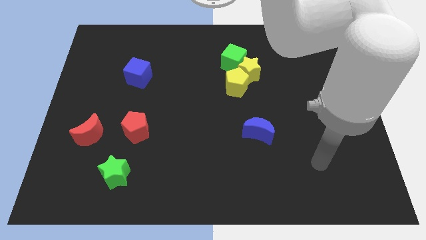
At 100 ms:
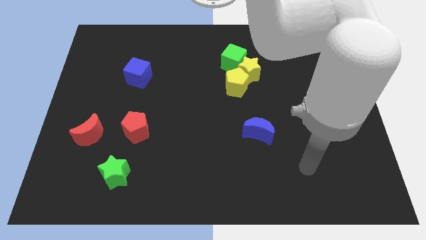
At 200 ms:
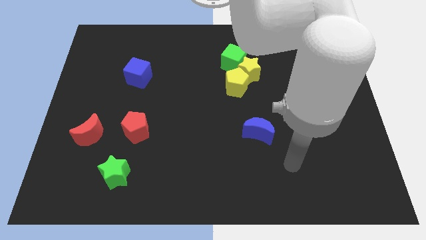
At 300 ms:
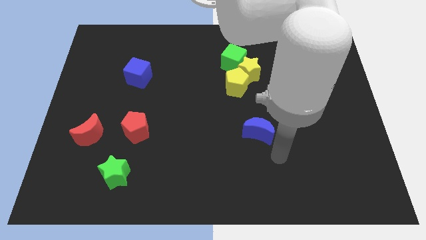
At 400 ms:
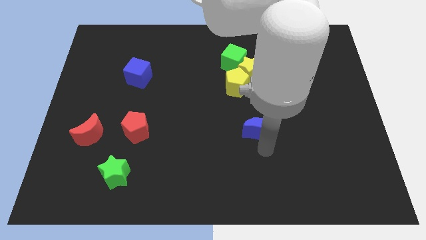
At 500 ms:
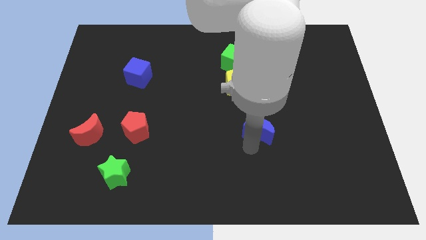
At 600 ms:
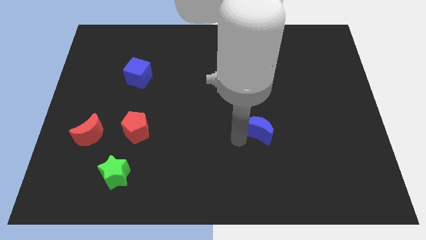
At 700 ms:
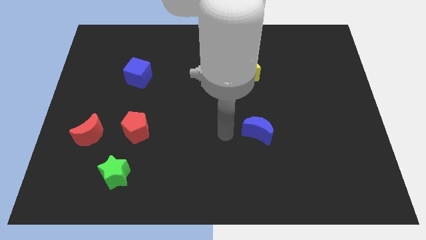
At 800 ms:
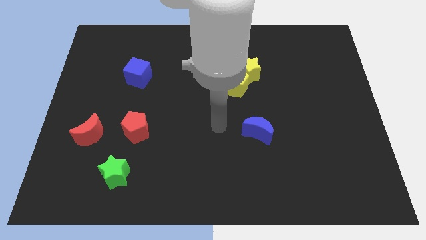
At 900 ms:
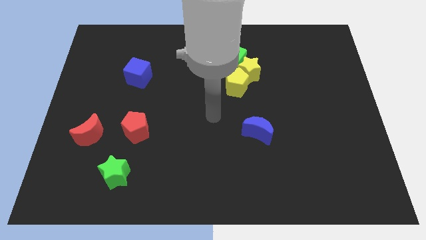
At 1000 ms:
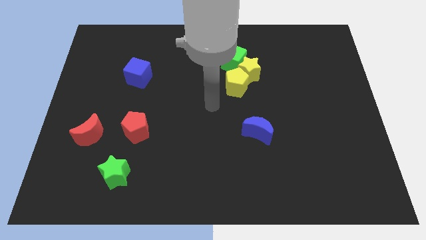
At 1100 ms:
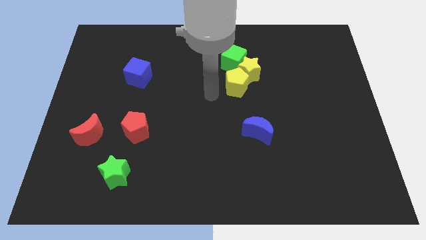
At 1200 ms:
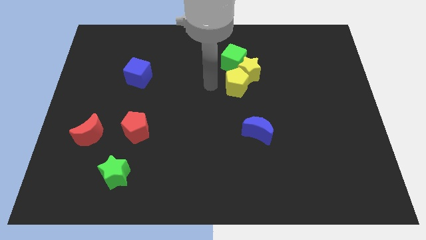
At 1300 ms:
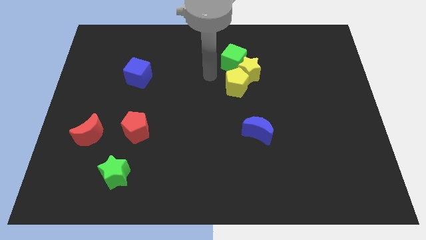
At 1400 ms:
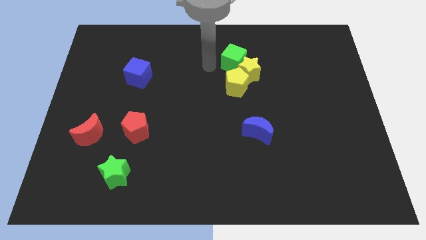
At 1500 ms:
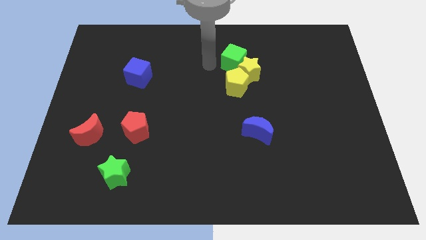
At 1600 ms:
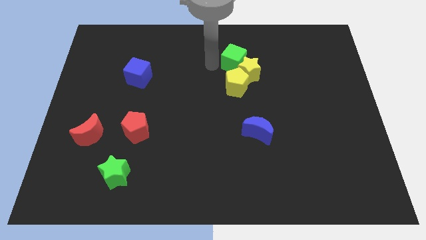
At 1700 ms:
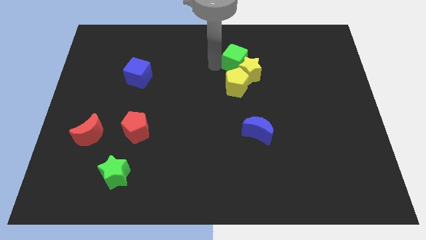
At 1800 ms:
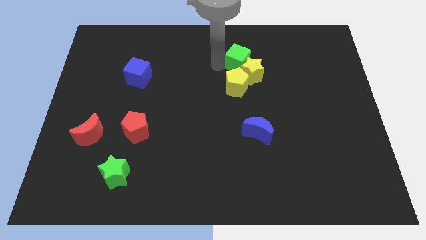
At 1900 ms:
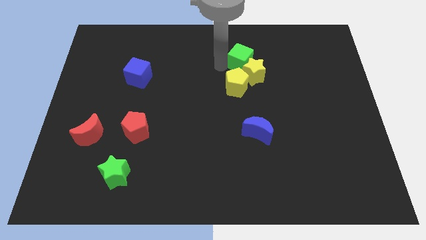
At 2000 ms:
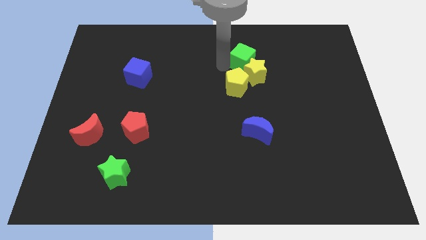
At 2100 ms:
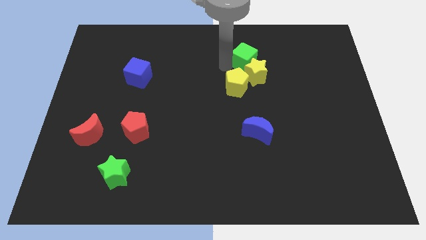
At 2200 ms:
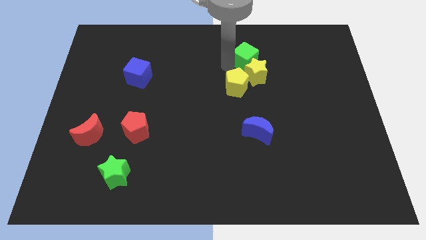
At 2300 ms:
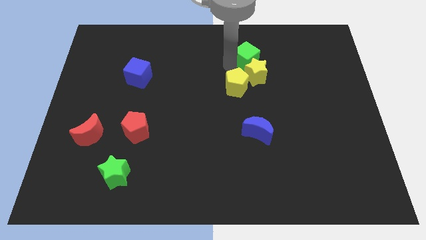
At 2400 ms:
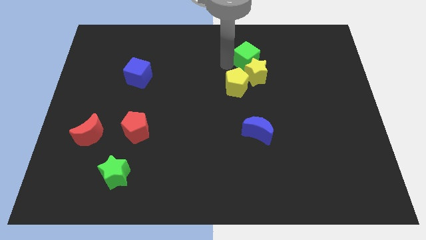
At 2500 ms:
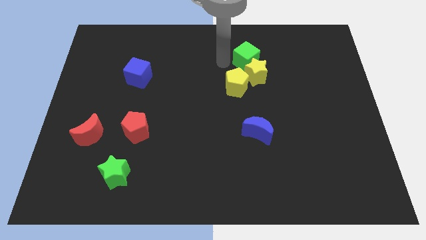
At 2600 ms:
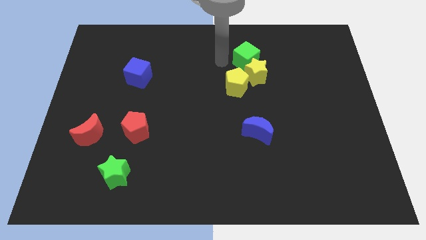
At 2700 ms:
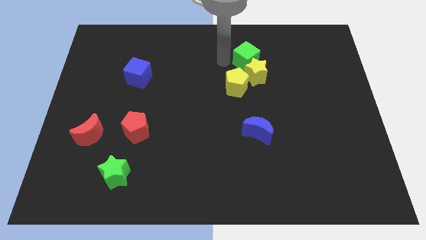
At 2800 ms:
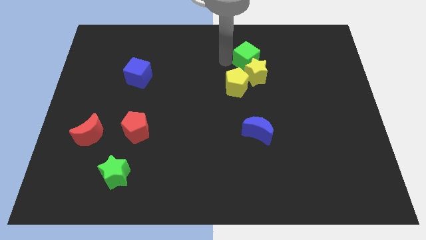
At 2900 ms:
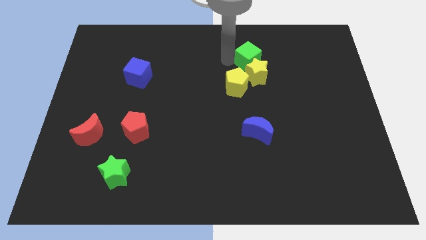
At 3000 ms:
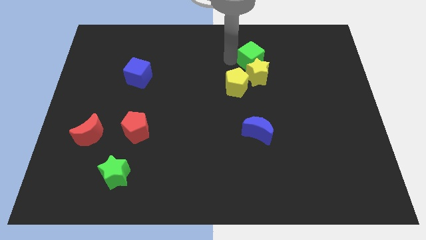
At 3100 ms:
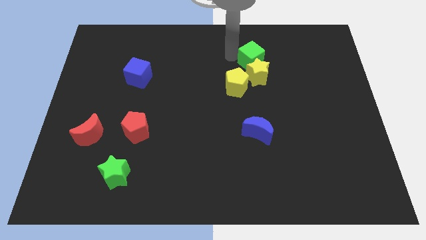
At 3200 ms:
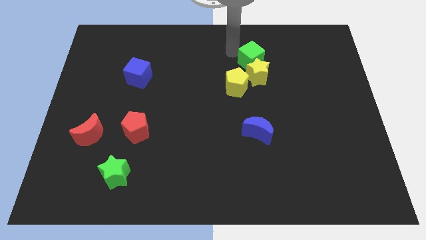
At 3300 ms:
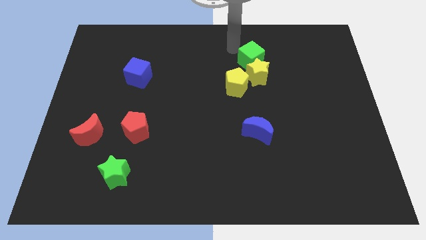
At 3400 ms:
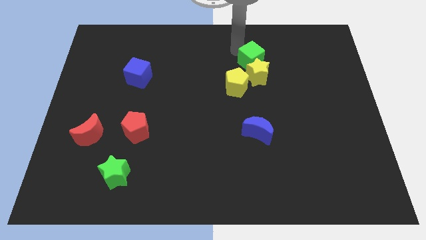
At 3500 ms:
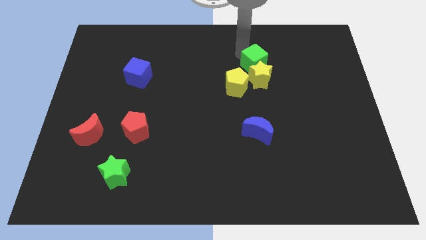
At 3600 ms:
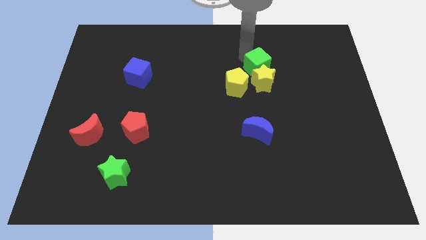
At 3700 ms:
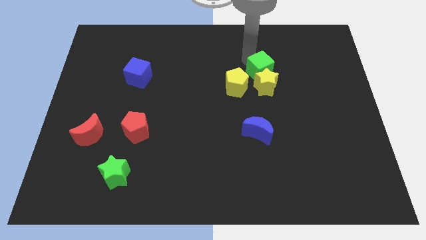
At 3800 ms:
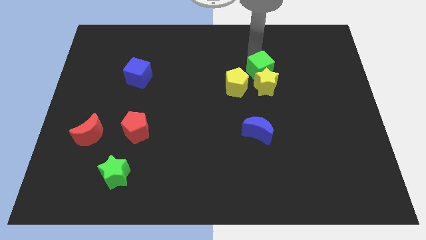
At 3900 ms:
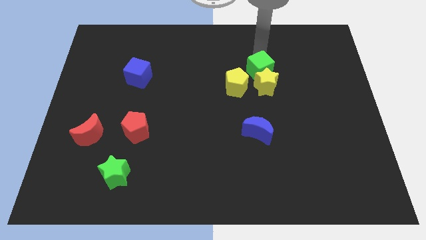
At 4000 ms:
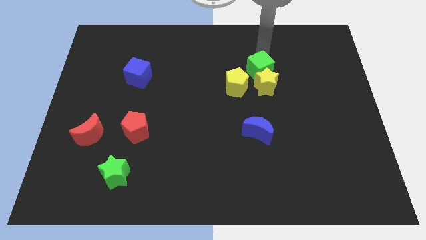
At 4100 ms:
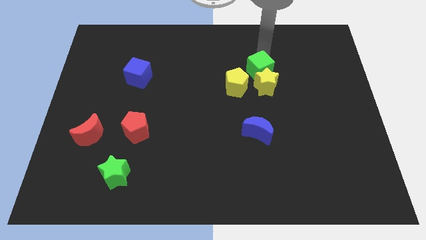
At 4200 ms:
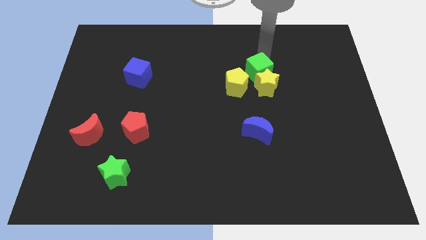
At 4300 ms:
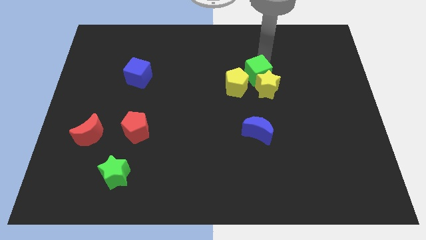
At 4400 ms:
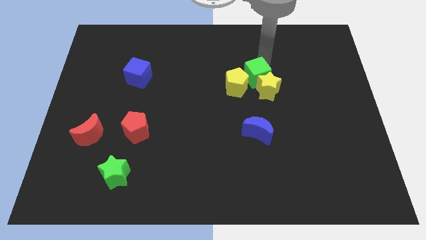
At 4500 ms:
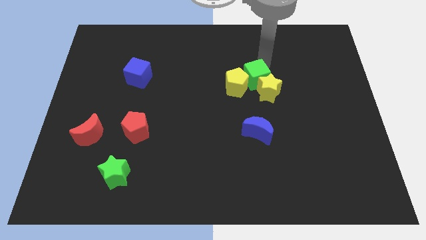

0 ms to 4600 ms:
push the green cube to the top of the blue moon

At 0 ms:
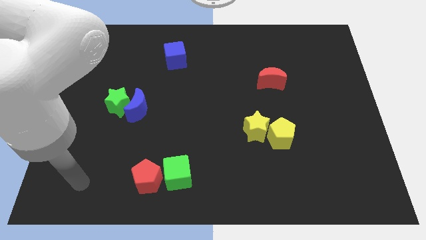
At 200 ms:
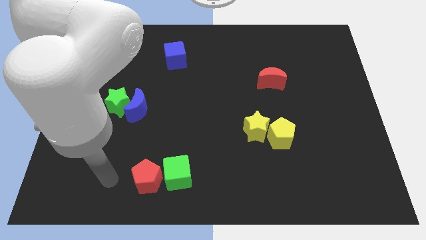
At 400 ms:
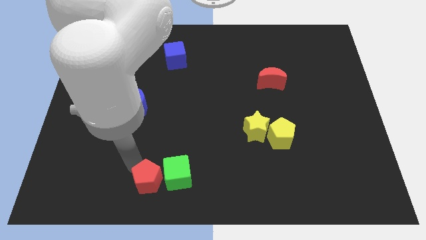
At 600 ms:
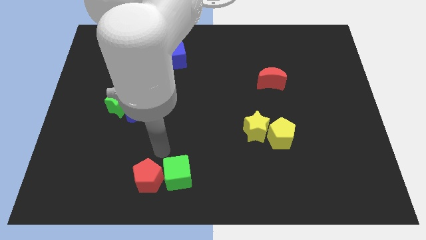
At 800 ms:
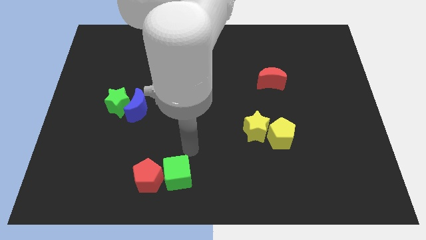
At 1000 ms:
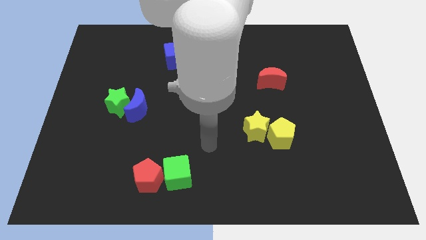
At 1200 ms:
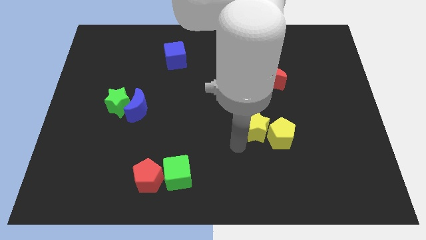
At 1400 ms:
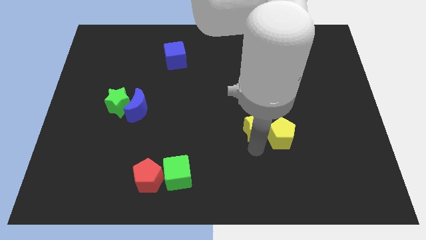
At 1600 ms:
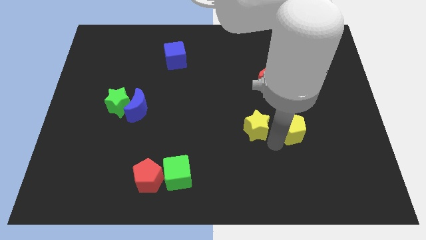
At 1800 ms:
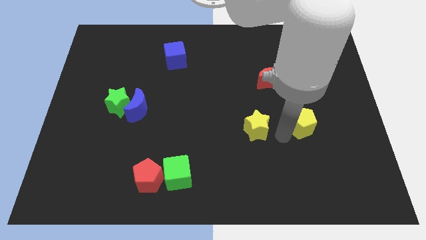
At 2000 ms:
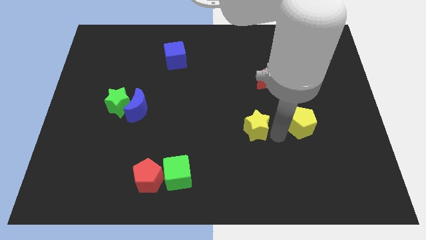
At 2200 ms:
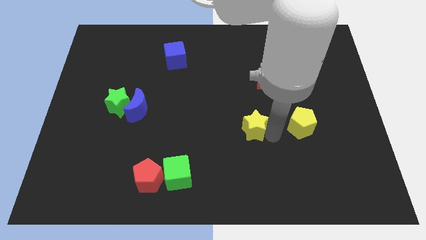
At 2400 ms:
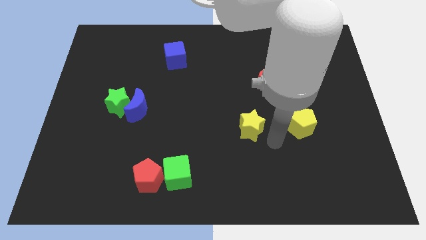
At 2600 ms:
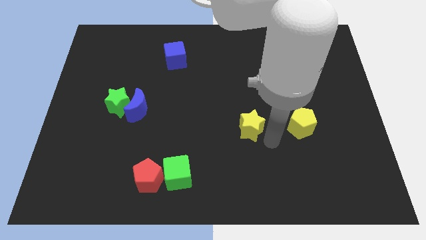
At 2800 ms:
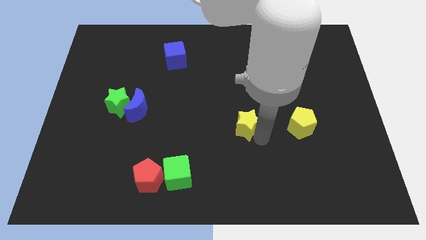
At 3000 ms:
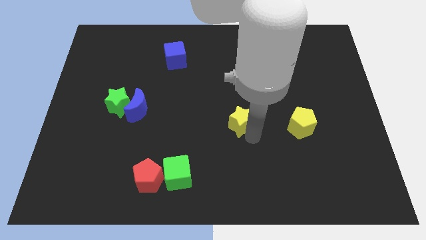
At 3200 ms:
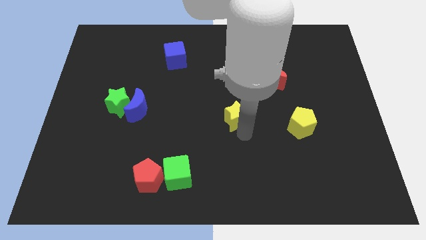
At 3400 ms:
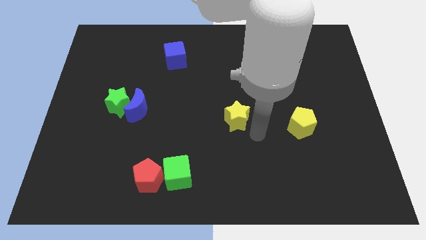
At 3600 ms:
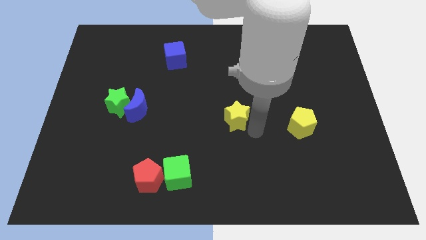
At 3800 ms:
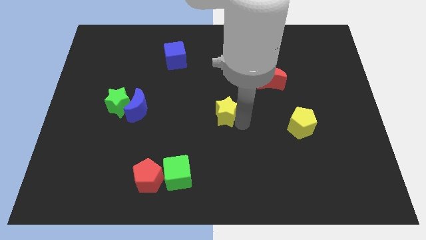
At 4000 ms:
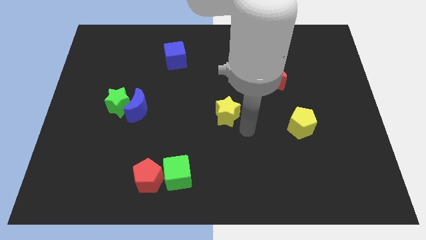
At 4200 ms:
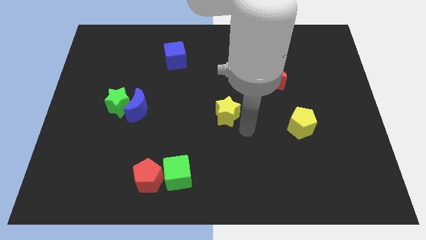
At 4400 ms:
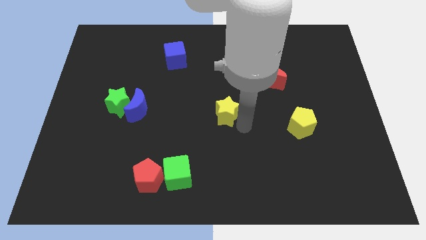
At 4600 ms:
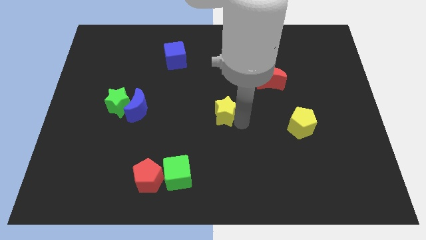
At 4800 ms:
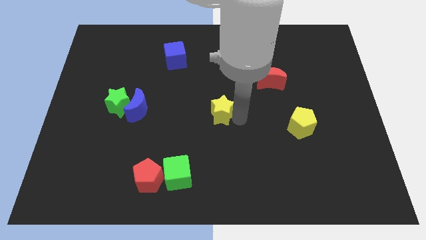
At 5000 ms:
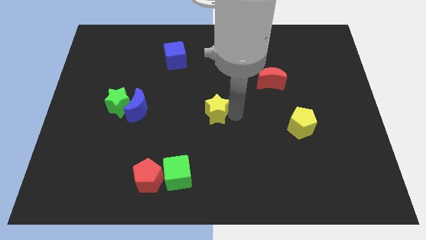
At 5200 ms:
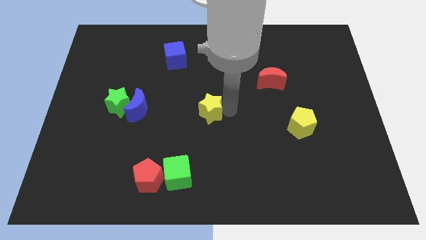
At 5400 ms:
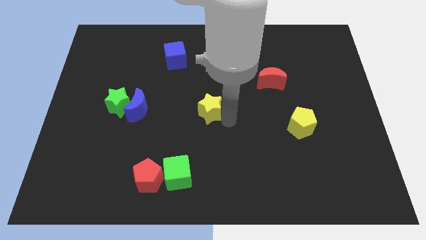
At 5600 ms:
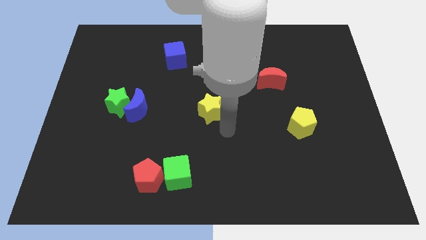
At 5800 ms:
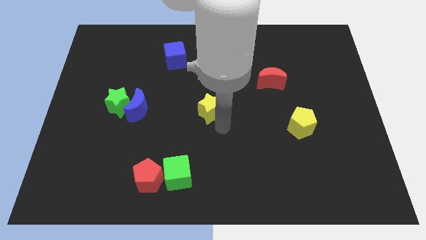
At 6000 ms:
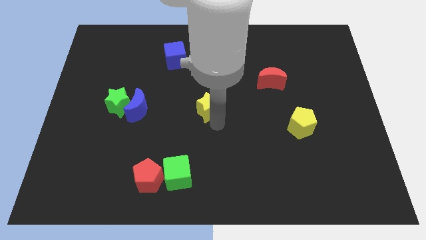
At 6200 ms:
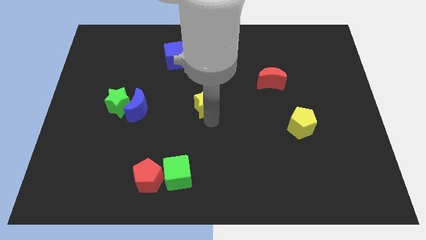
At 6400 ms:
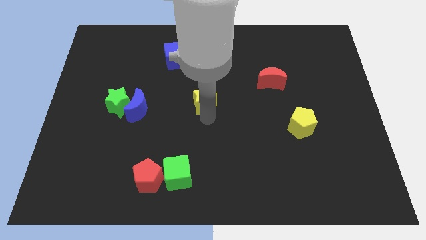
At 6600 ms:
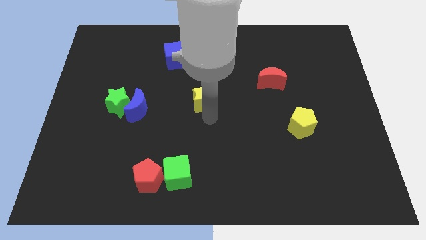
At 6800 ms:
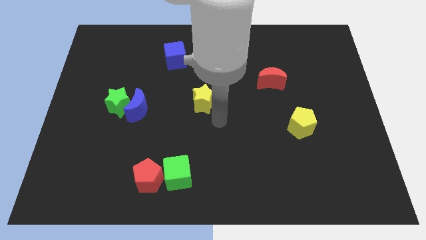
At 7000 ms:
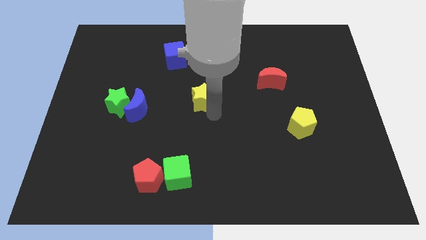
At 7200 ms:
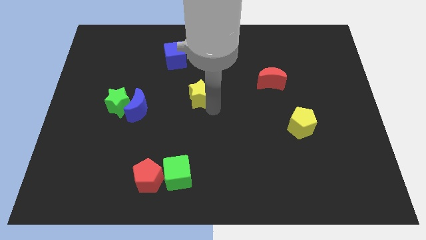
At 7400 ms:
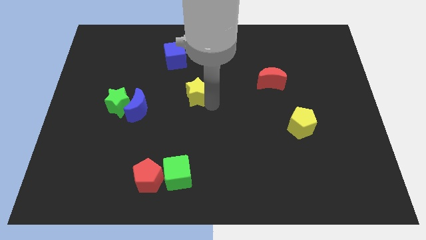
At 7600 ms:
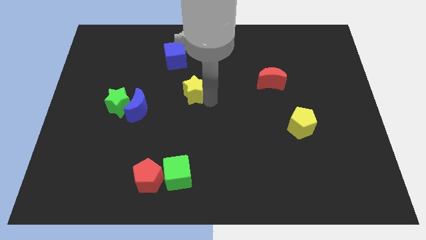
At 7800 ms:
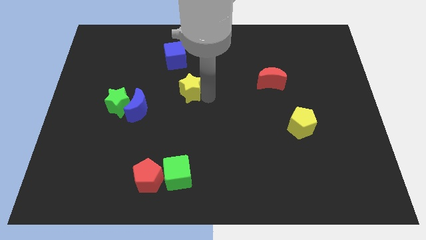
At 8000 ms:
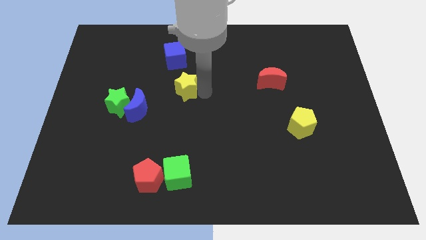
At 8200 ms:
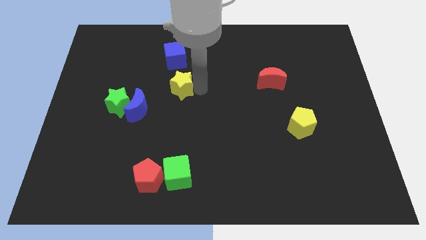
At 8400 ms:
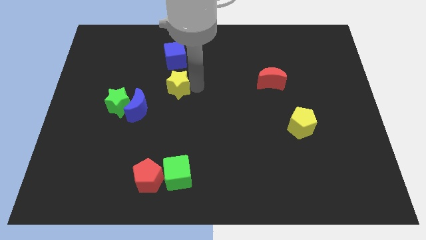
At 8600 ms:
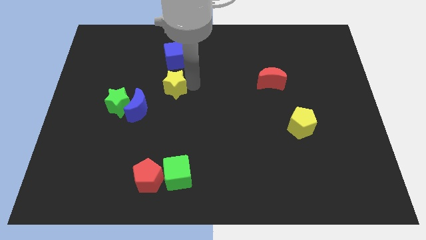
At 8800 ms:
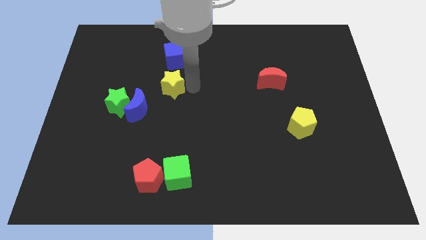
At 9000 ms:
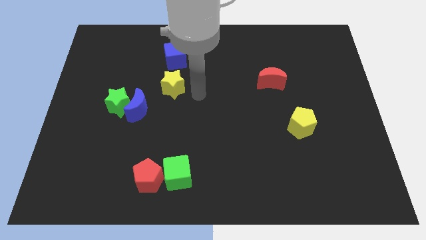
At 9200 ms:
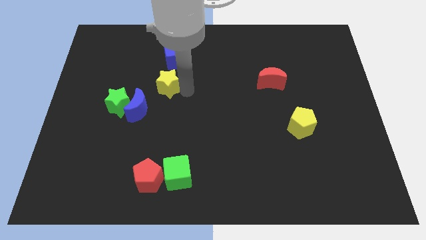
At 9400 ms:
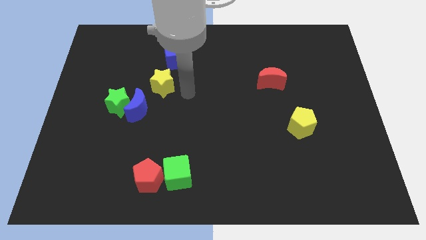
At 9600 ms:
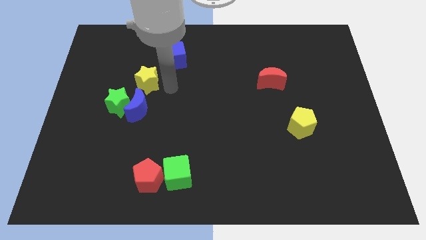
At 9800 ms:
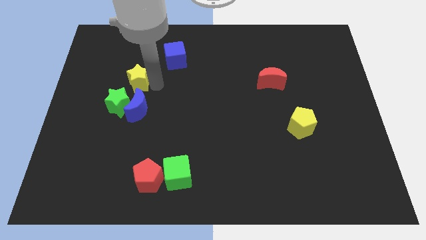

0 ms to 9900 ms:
slide the yellow star to the top of the green star
